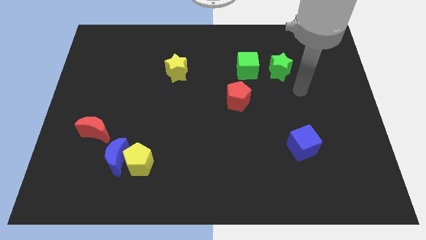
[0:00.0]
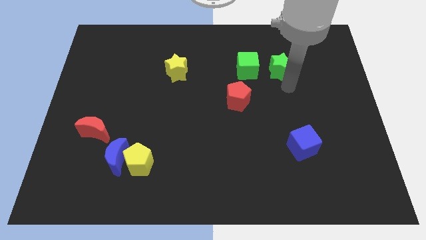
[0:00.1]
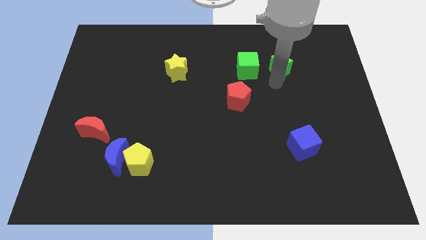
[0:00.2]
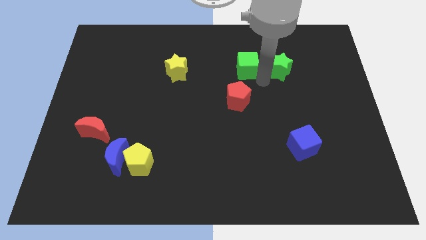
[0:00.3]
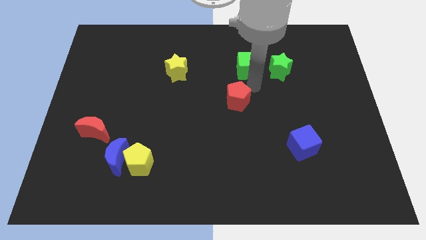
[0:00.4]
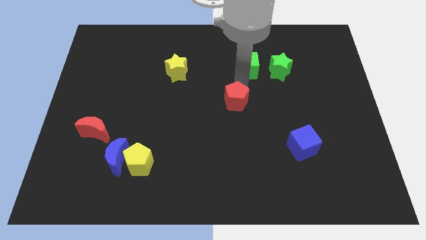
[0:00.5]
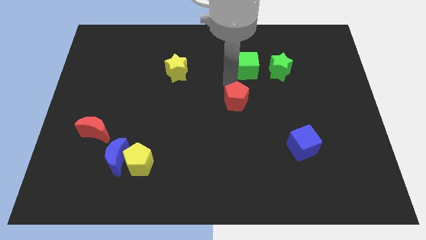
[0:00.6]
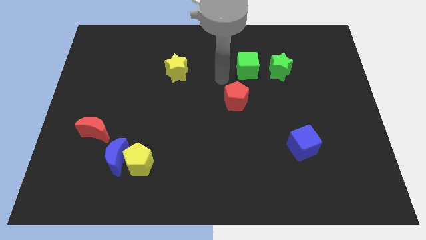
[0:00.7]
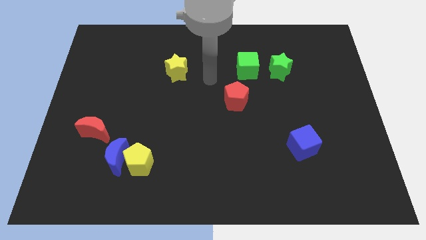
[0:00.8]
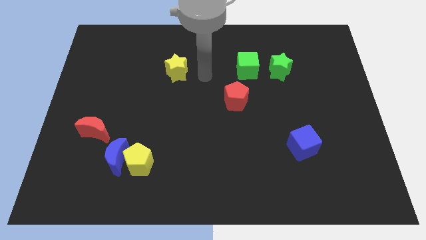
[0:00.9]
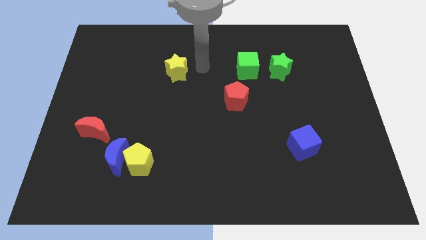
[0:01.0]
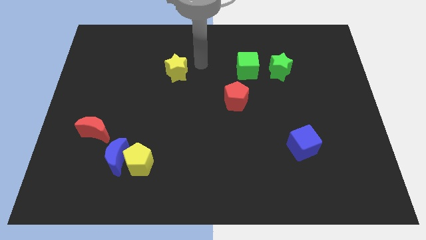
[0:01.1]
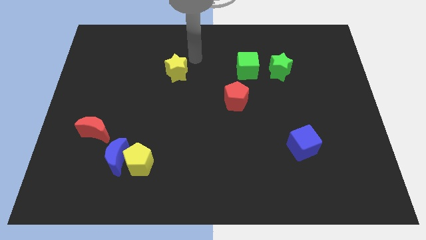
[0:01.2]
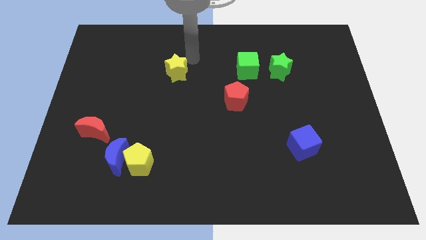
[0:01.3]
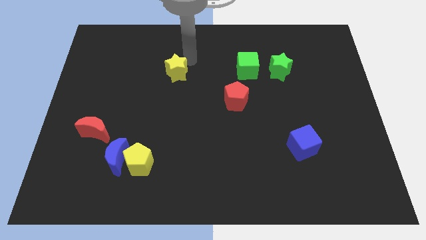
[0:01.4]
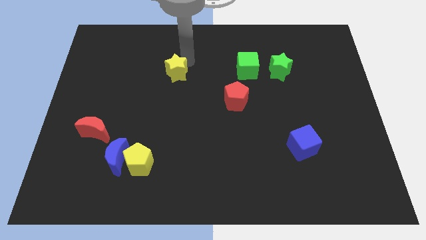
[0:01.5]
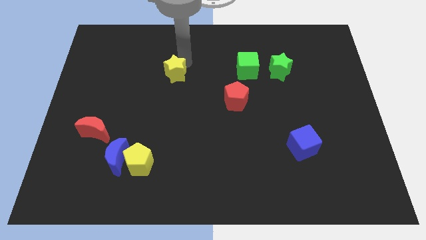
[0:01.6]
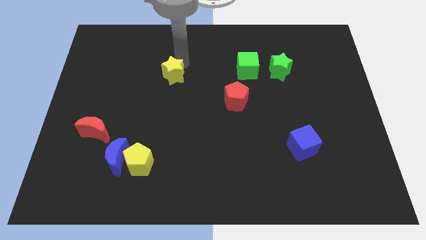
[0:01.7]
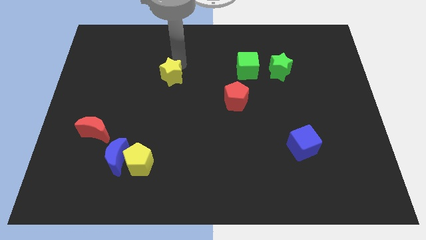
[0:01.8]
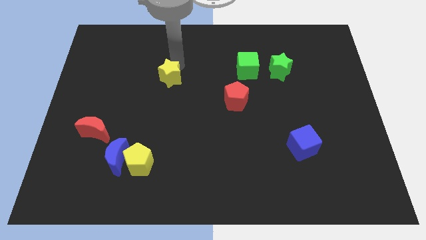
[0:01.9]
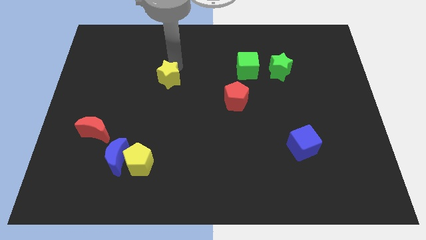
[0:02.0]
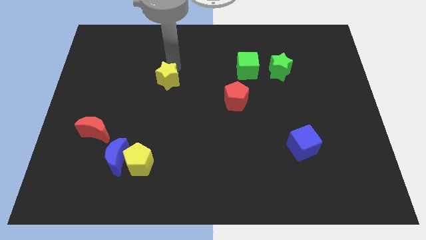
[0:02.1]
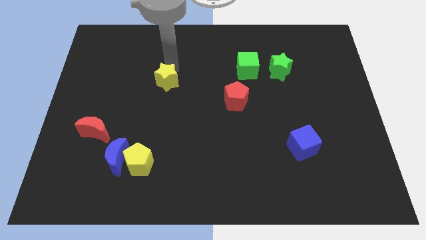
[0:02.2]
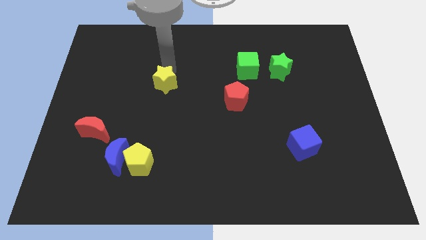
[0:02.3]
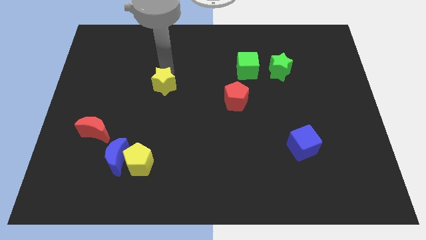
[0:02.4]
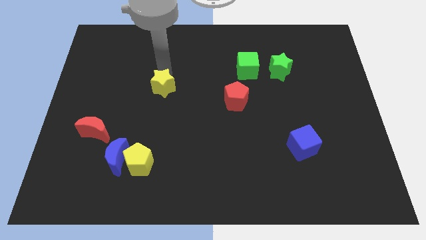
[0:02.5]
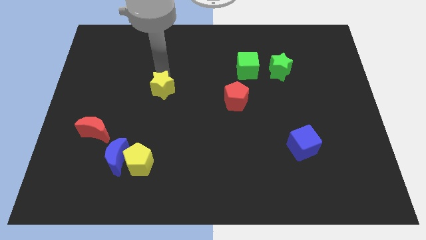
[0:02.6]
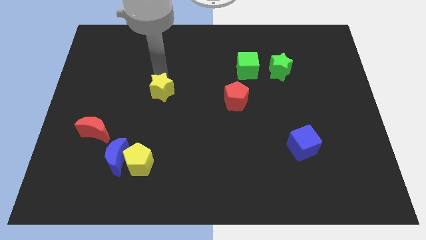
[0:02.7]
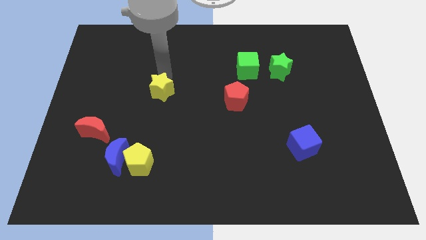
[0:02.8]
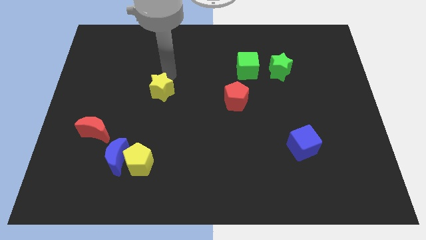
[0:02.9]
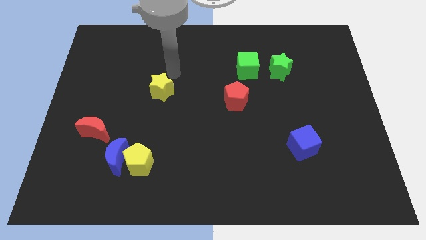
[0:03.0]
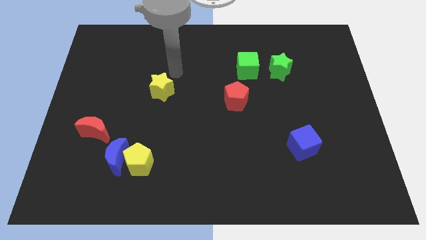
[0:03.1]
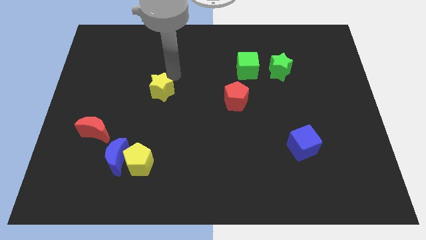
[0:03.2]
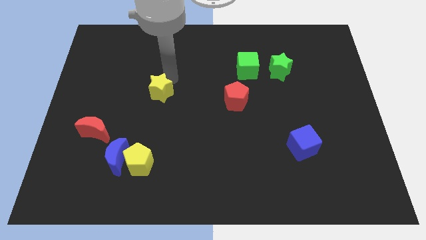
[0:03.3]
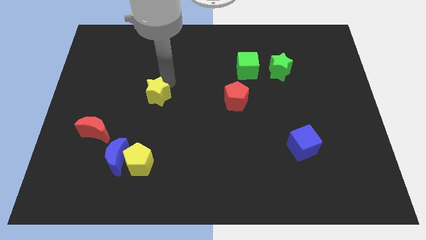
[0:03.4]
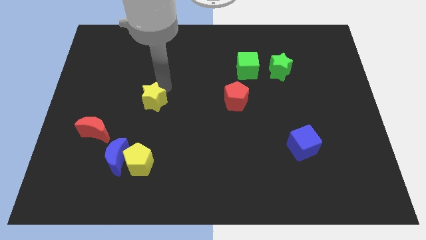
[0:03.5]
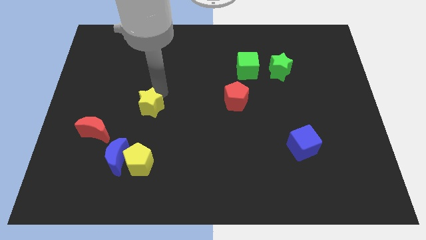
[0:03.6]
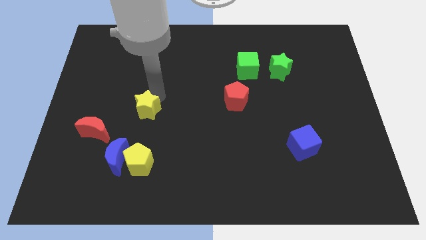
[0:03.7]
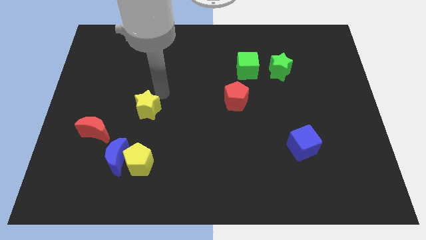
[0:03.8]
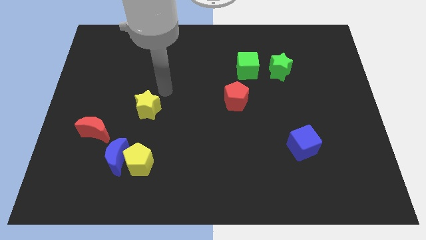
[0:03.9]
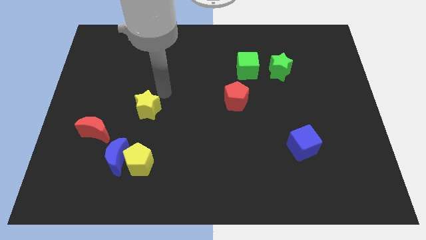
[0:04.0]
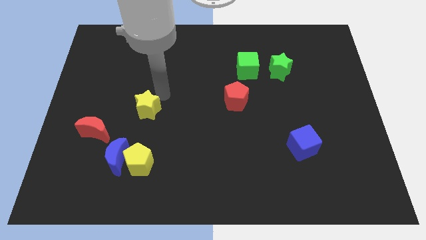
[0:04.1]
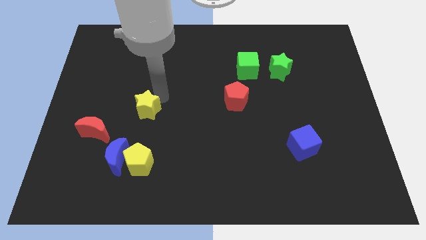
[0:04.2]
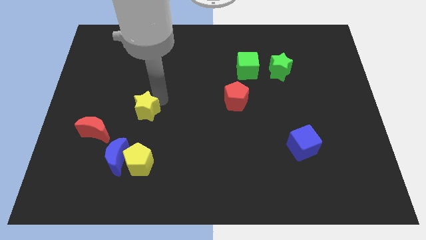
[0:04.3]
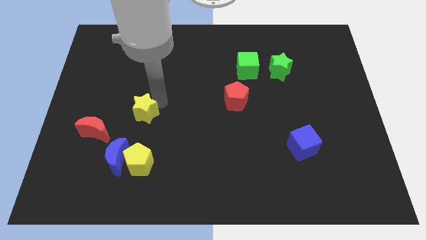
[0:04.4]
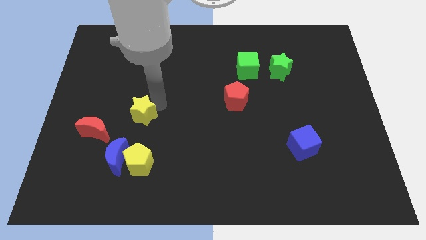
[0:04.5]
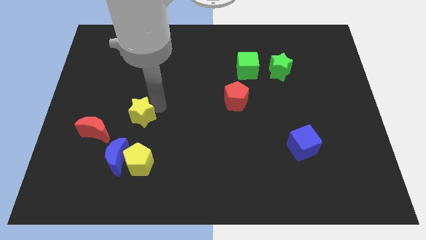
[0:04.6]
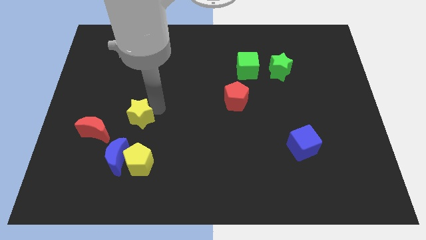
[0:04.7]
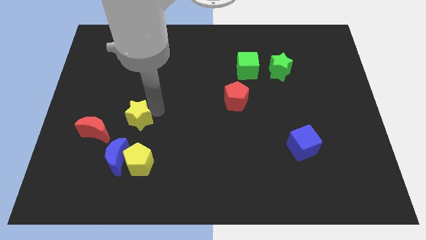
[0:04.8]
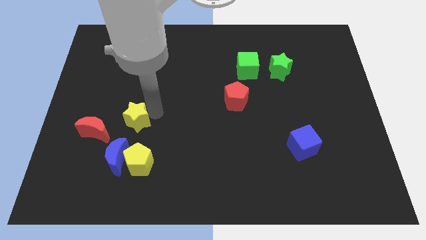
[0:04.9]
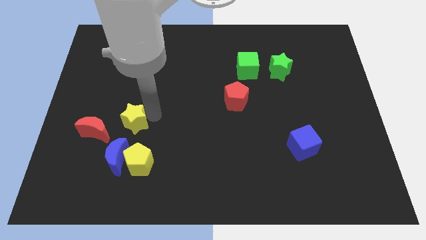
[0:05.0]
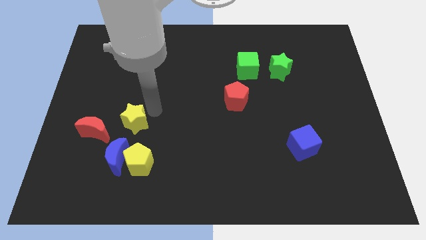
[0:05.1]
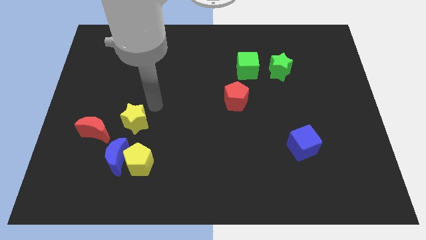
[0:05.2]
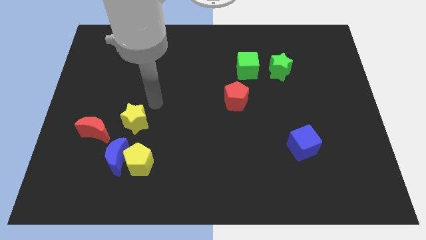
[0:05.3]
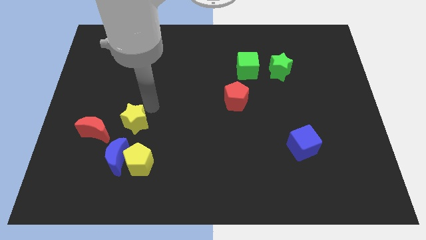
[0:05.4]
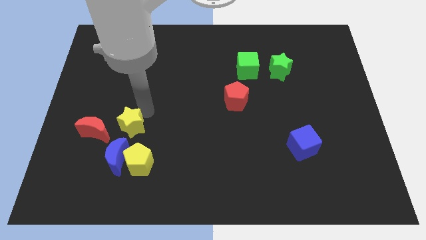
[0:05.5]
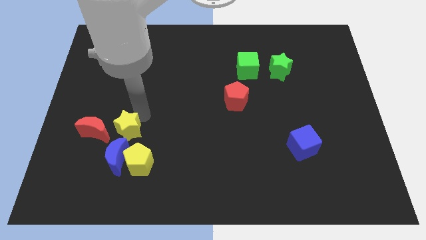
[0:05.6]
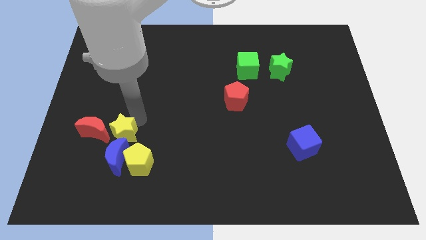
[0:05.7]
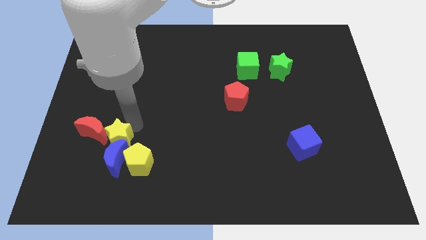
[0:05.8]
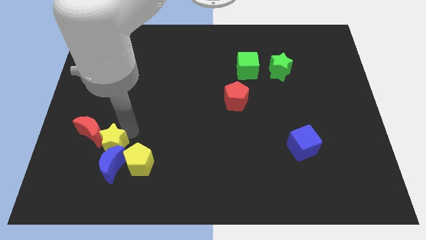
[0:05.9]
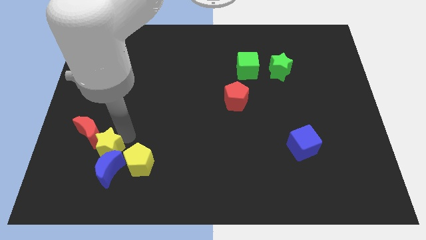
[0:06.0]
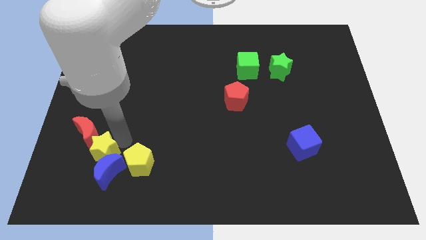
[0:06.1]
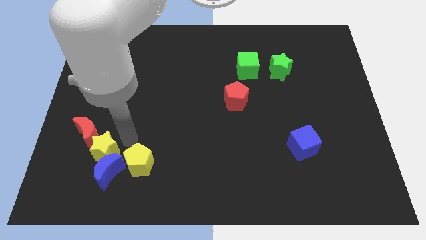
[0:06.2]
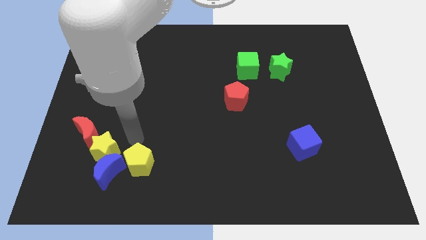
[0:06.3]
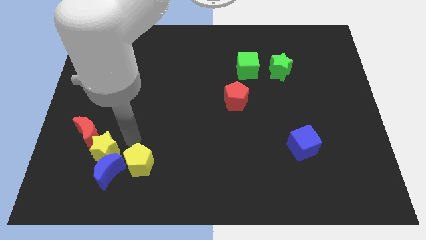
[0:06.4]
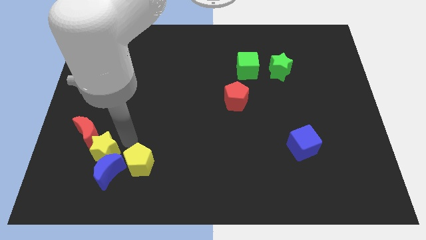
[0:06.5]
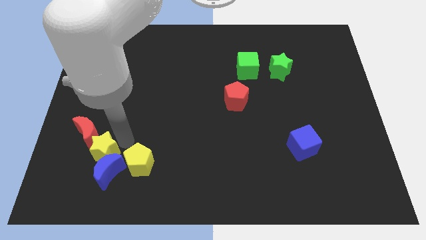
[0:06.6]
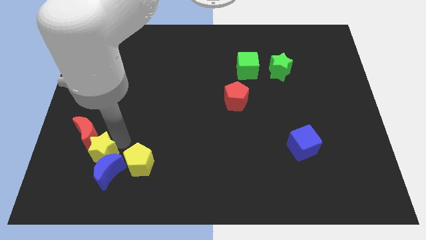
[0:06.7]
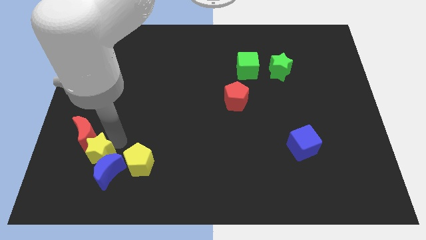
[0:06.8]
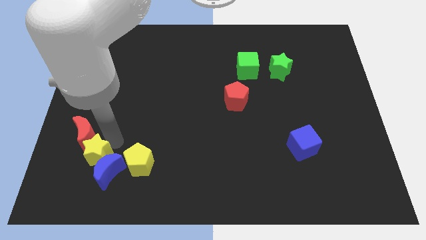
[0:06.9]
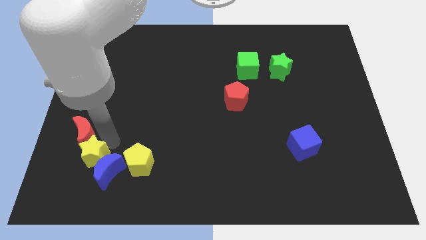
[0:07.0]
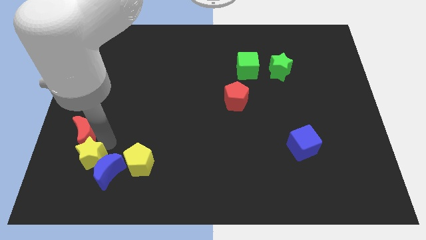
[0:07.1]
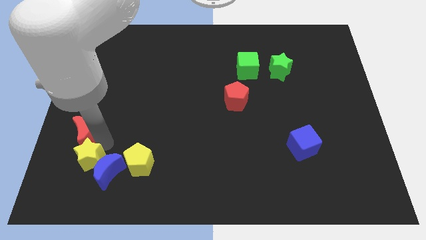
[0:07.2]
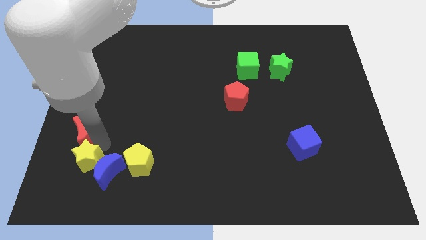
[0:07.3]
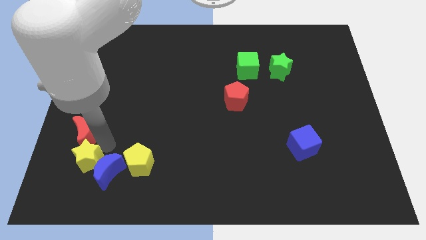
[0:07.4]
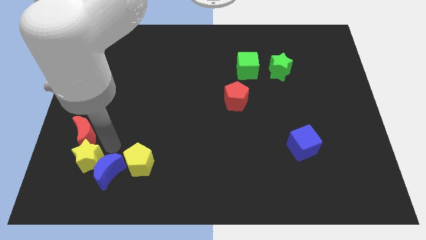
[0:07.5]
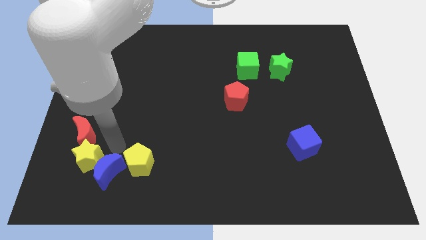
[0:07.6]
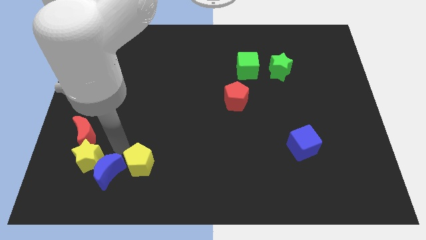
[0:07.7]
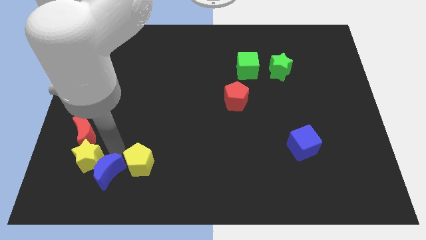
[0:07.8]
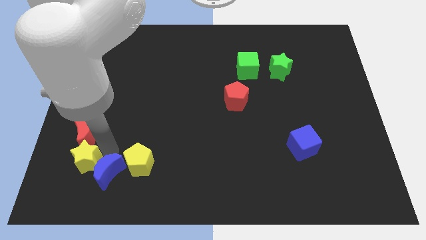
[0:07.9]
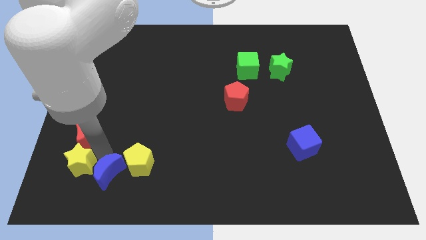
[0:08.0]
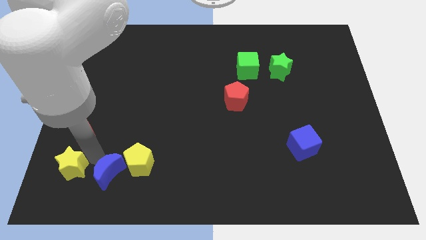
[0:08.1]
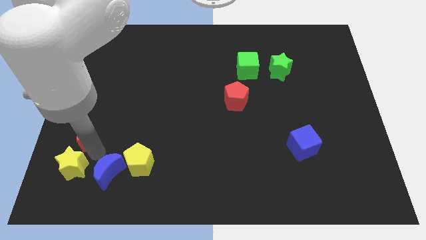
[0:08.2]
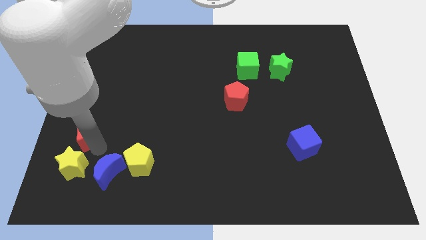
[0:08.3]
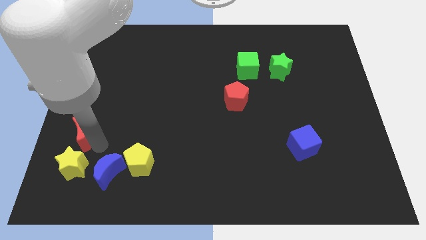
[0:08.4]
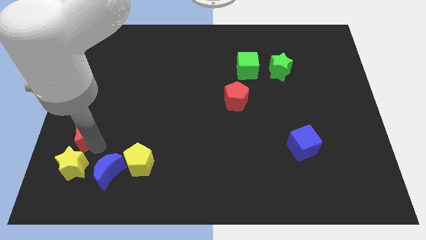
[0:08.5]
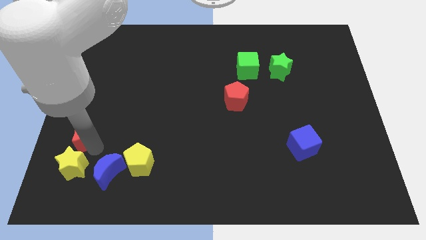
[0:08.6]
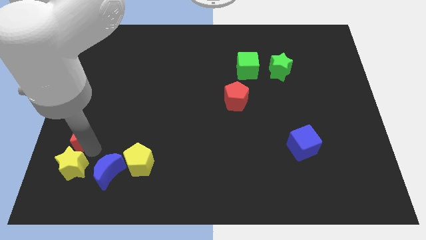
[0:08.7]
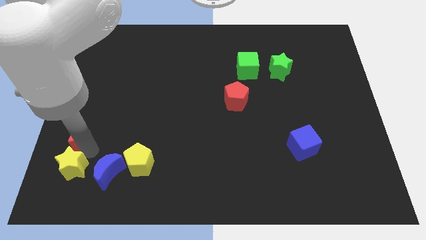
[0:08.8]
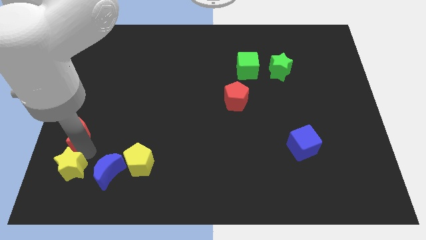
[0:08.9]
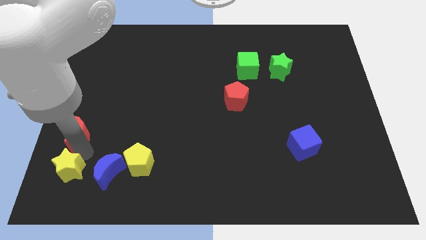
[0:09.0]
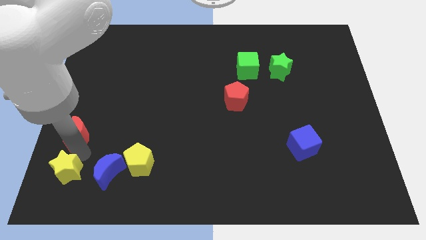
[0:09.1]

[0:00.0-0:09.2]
push the yellow star to the bottom left of the board
